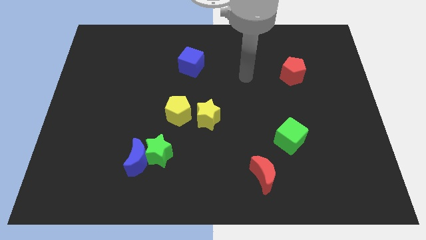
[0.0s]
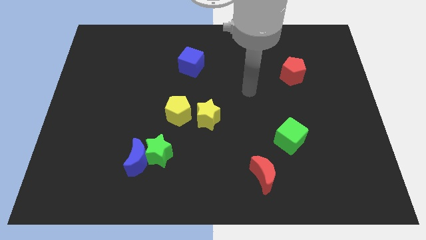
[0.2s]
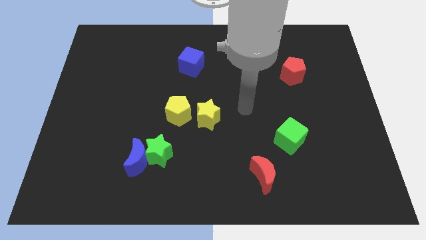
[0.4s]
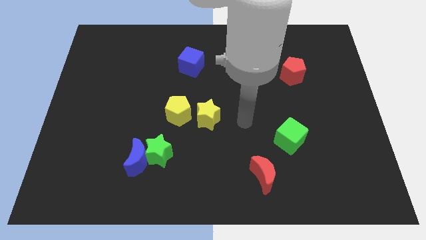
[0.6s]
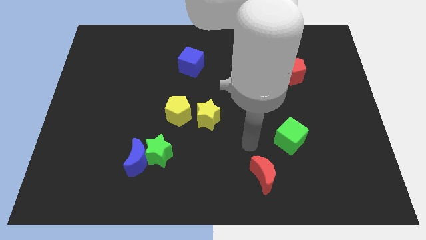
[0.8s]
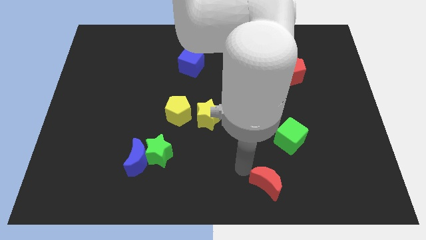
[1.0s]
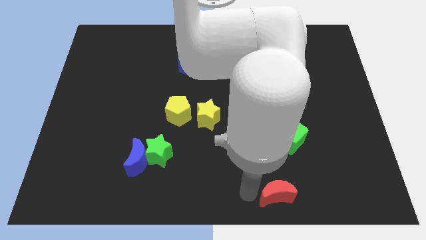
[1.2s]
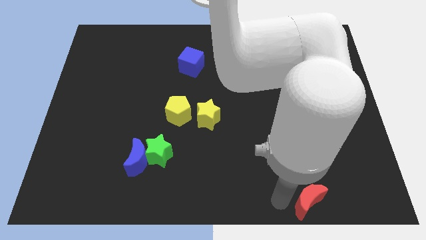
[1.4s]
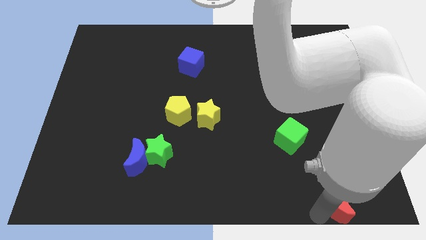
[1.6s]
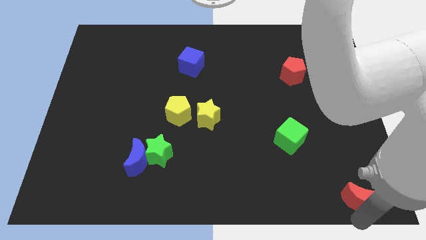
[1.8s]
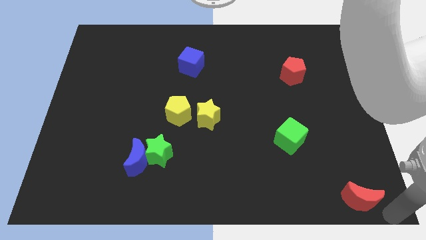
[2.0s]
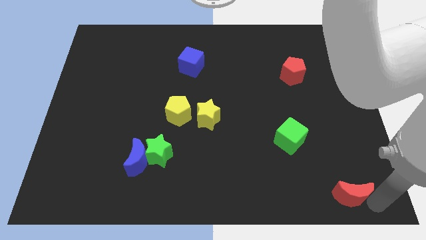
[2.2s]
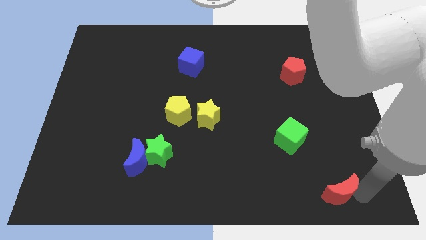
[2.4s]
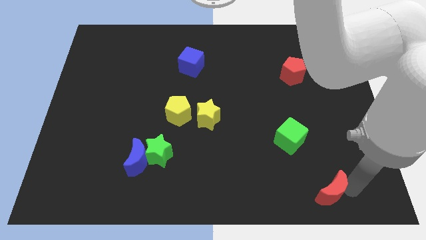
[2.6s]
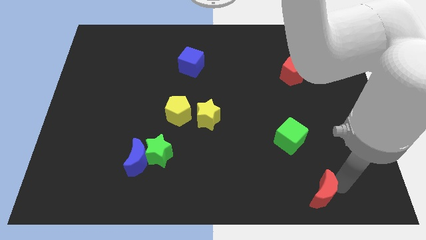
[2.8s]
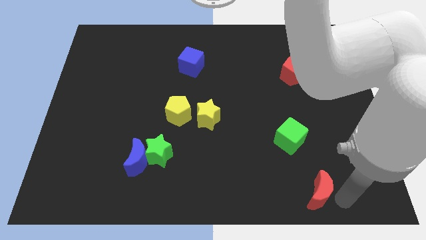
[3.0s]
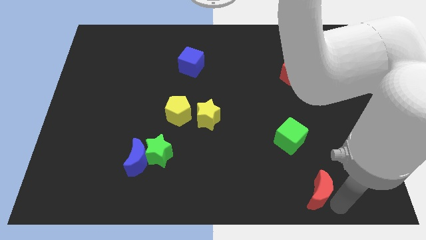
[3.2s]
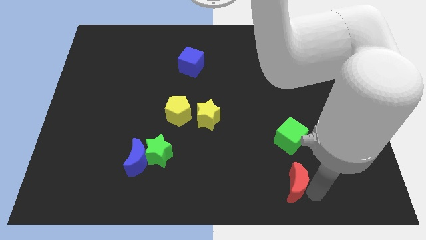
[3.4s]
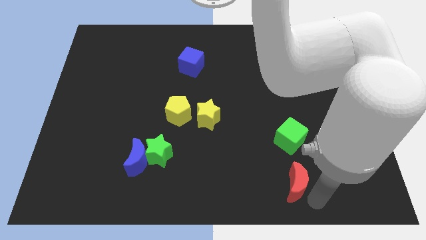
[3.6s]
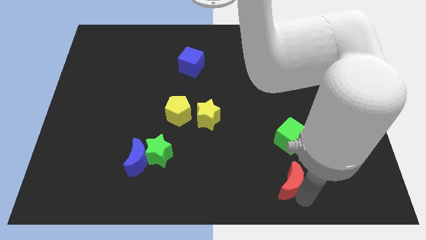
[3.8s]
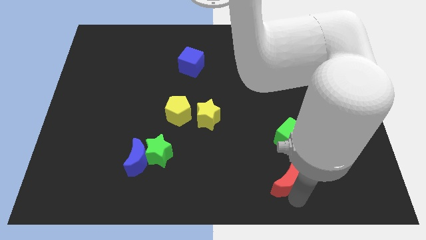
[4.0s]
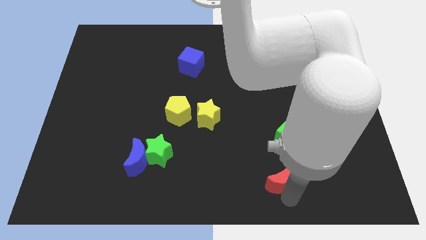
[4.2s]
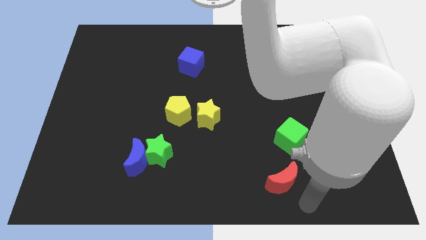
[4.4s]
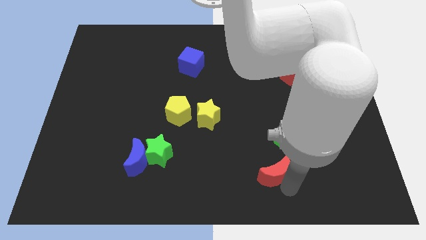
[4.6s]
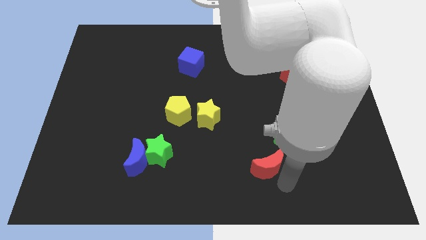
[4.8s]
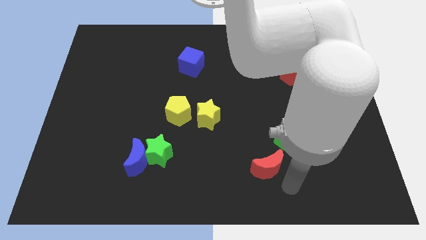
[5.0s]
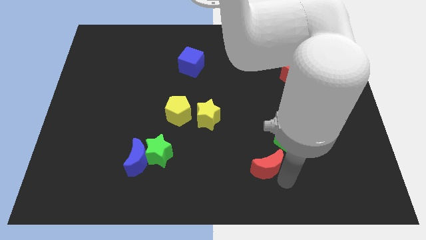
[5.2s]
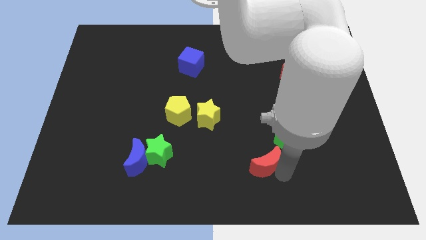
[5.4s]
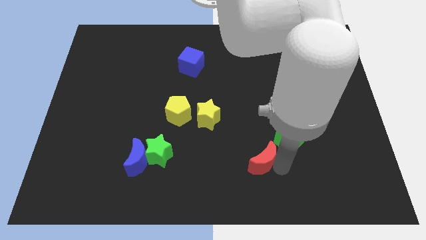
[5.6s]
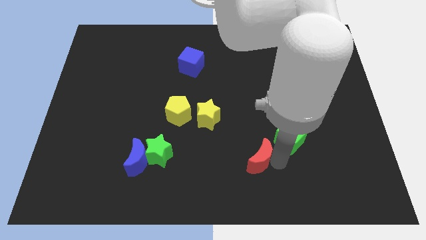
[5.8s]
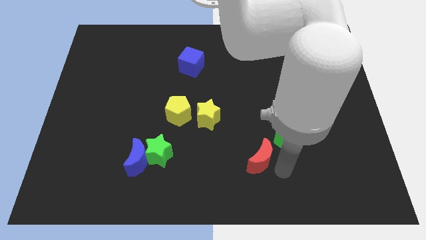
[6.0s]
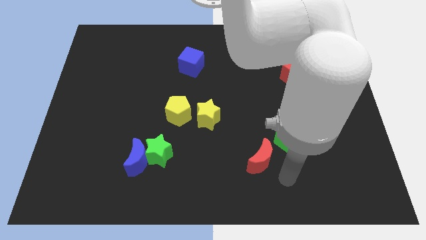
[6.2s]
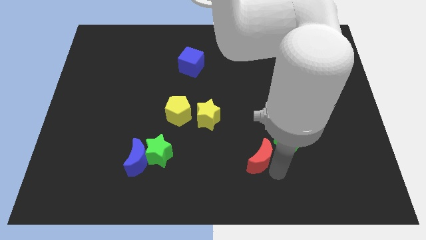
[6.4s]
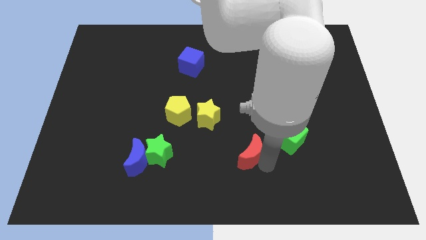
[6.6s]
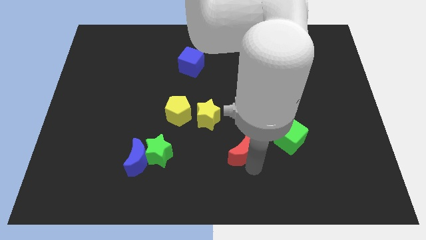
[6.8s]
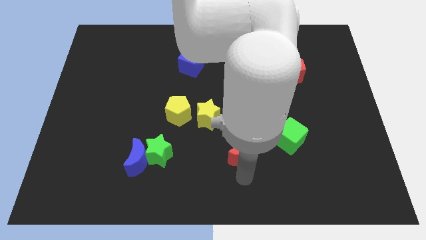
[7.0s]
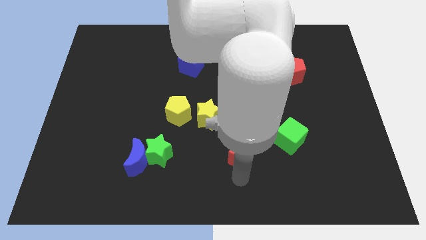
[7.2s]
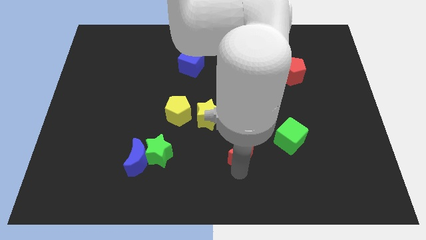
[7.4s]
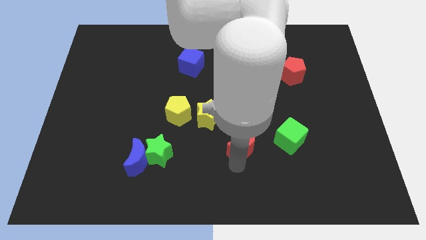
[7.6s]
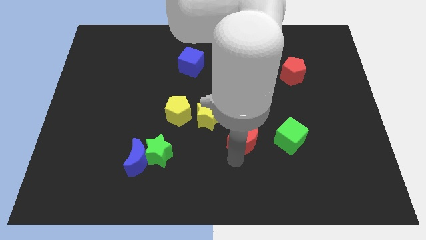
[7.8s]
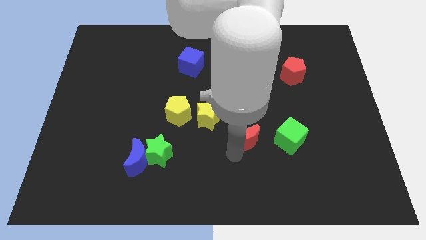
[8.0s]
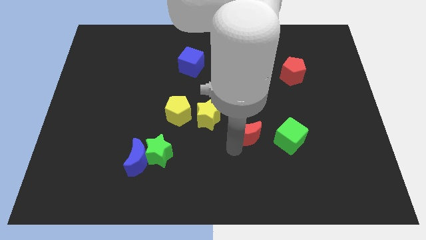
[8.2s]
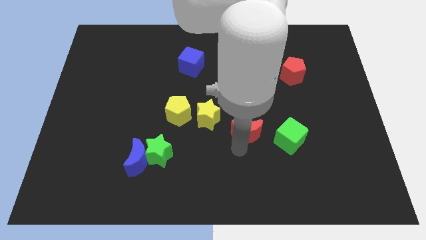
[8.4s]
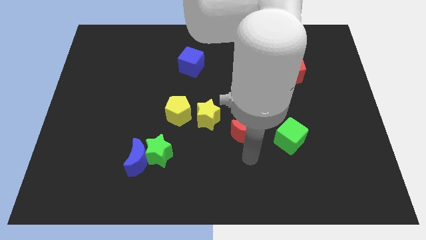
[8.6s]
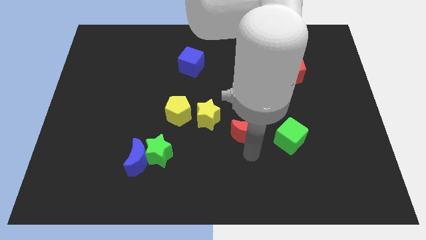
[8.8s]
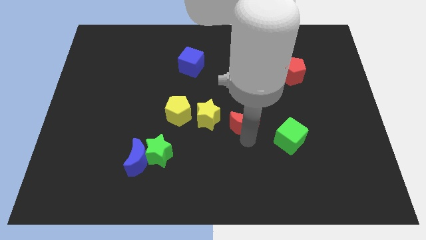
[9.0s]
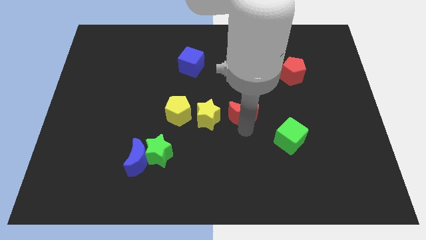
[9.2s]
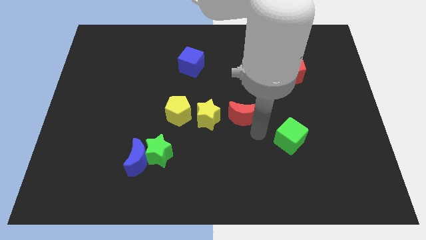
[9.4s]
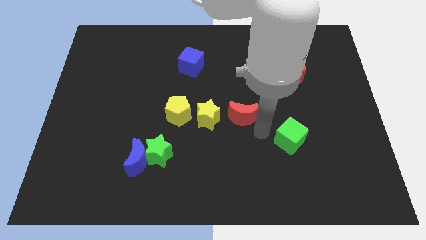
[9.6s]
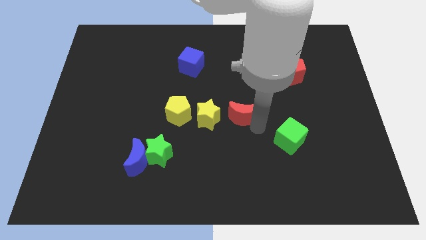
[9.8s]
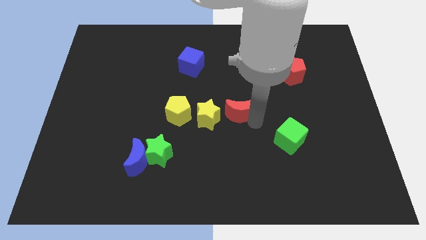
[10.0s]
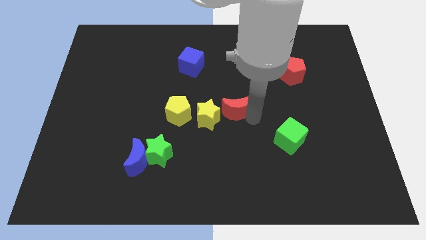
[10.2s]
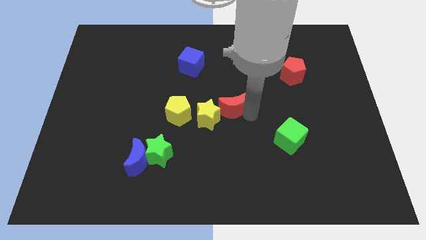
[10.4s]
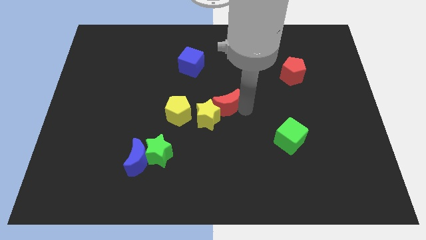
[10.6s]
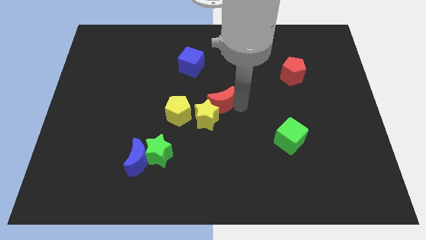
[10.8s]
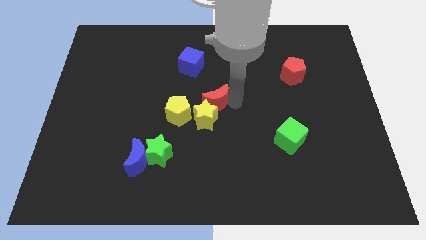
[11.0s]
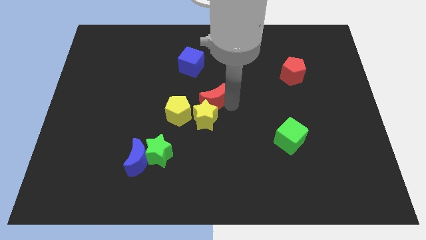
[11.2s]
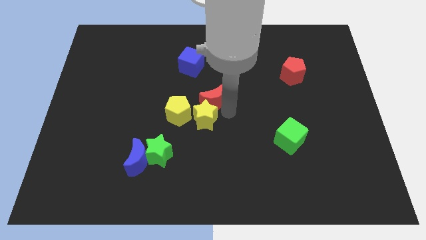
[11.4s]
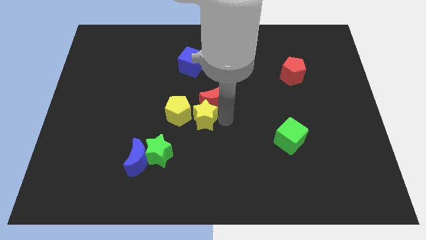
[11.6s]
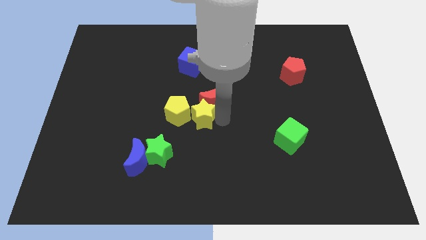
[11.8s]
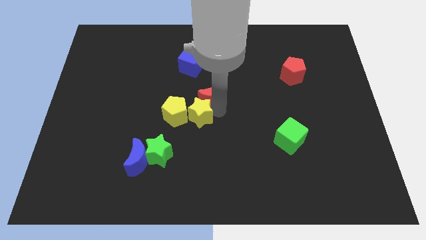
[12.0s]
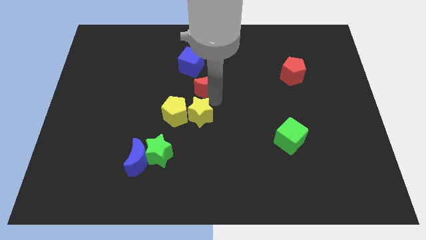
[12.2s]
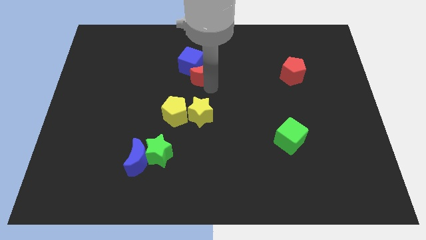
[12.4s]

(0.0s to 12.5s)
put the red moon to the blue cube

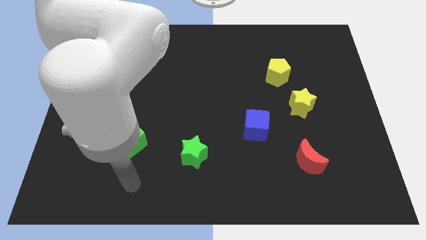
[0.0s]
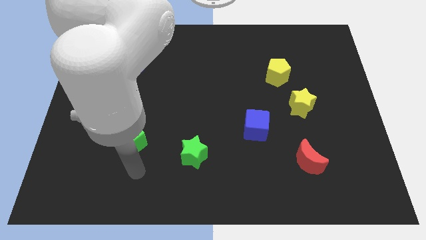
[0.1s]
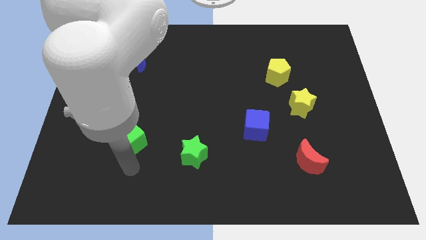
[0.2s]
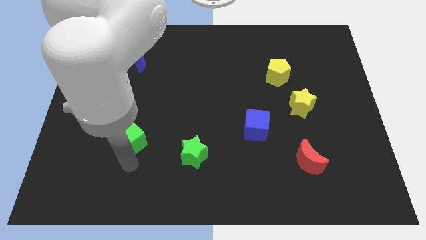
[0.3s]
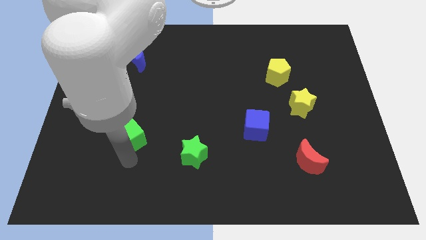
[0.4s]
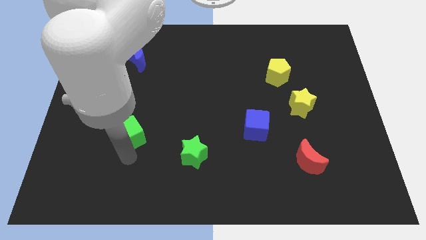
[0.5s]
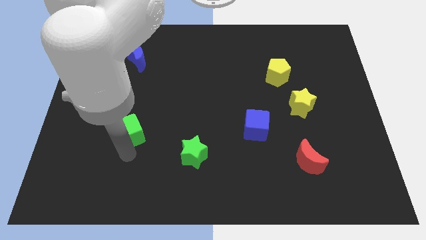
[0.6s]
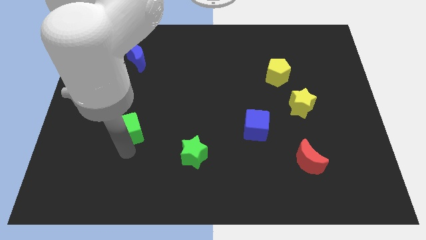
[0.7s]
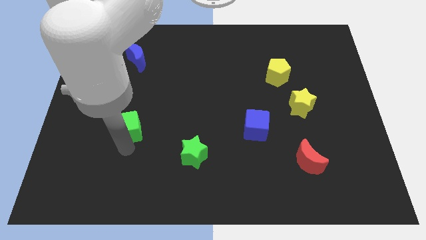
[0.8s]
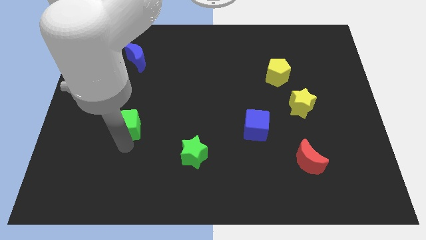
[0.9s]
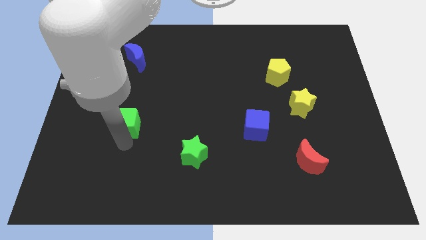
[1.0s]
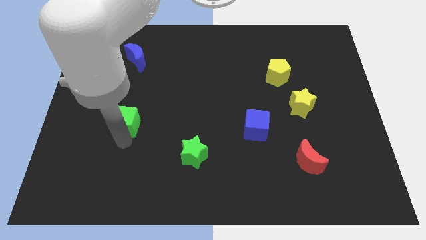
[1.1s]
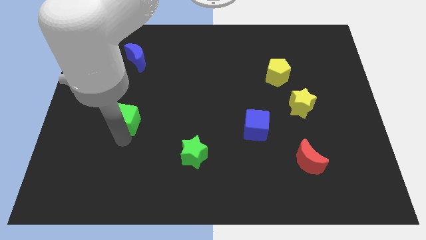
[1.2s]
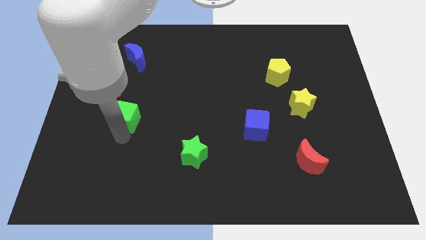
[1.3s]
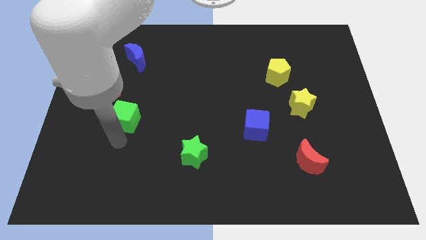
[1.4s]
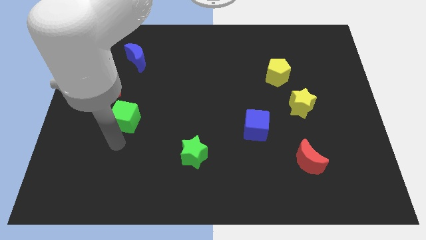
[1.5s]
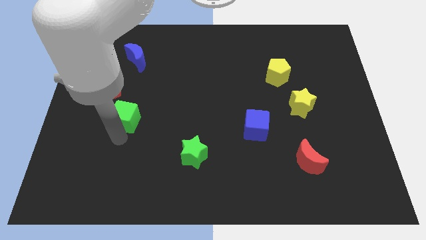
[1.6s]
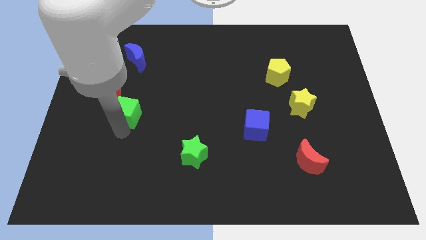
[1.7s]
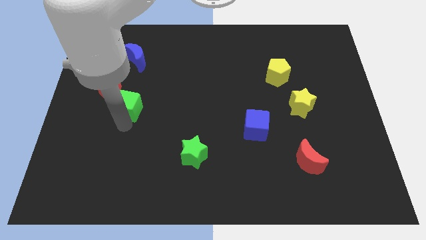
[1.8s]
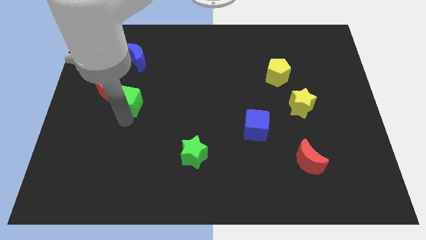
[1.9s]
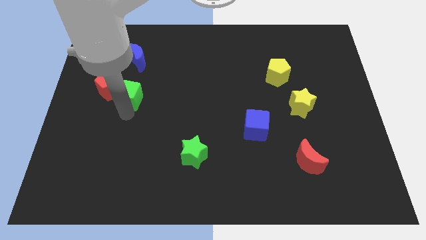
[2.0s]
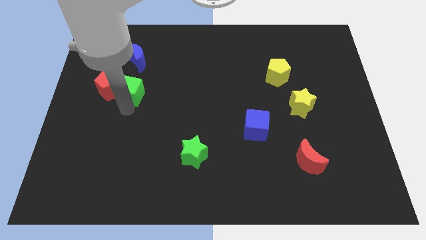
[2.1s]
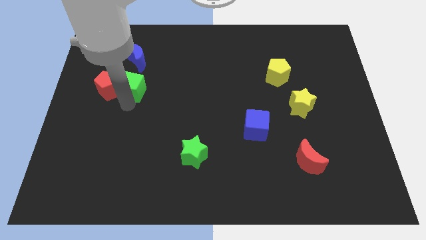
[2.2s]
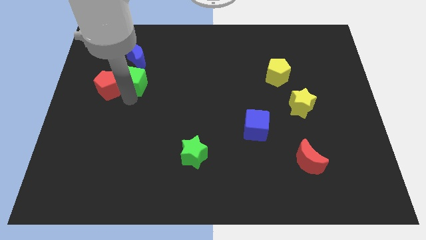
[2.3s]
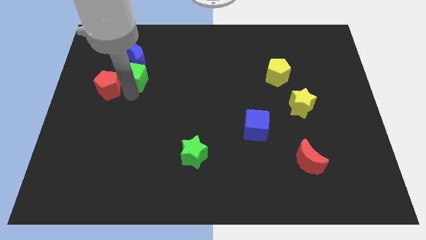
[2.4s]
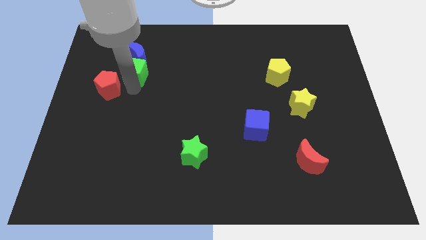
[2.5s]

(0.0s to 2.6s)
move the green cube close to the blue moon
